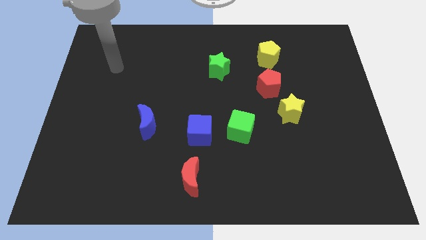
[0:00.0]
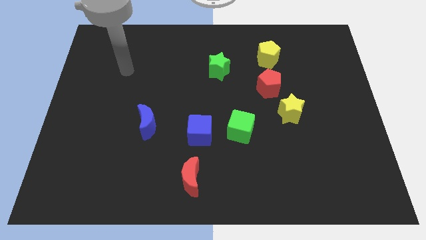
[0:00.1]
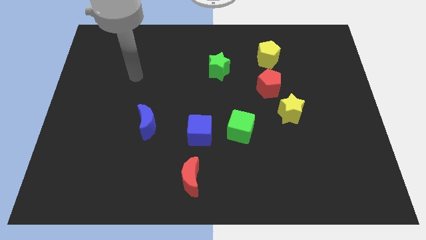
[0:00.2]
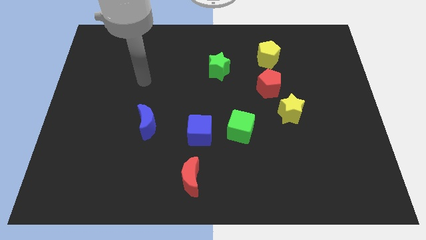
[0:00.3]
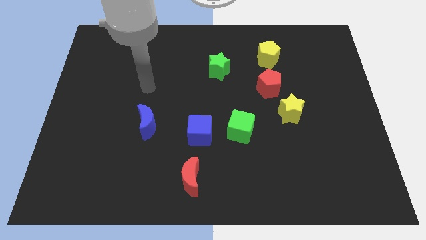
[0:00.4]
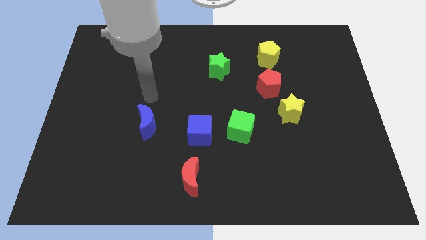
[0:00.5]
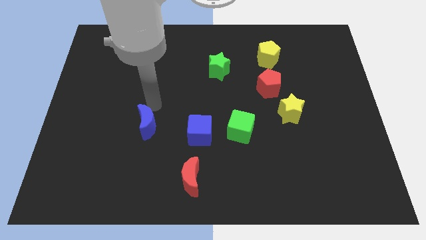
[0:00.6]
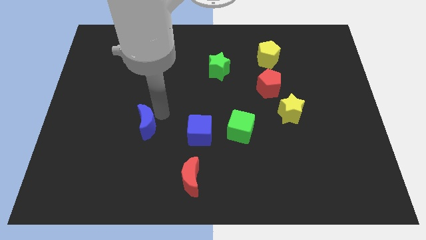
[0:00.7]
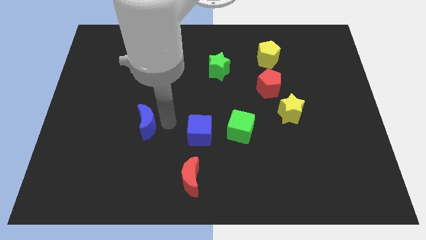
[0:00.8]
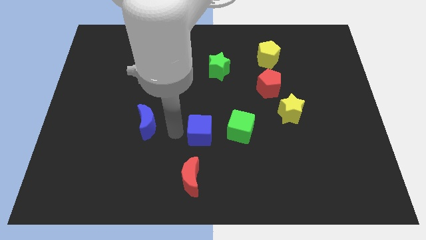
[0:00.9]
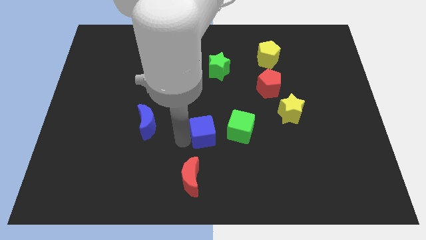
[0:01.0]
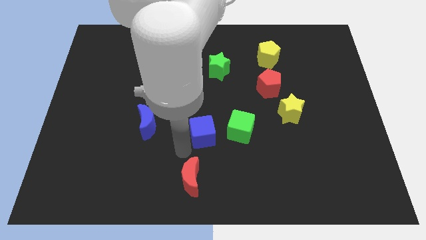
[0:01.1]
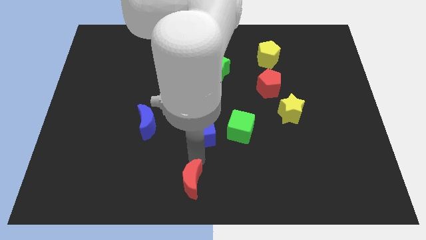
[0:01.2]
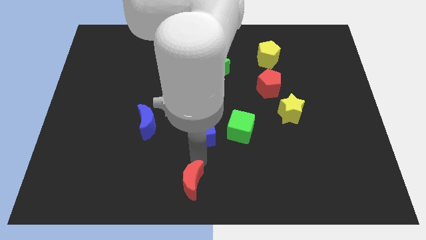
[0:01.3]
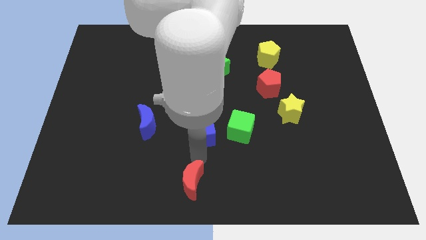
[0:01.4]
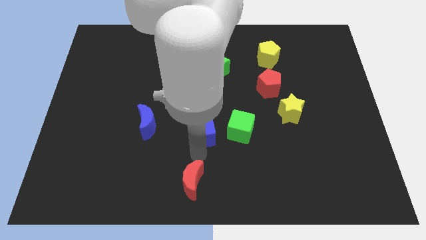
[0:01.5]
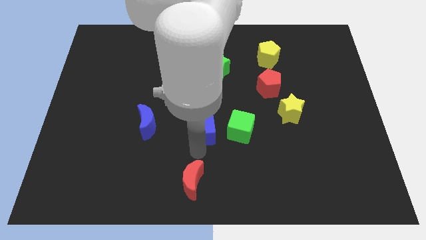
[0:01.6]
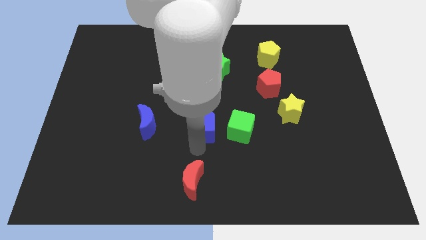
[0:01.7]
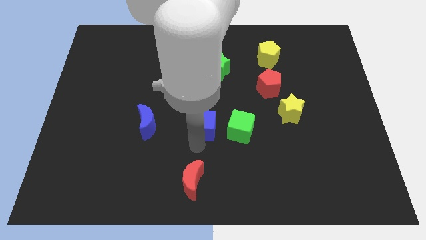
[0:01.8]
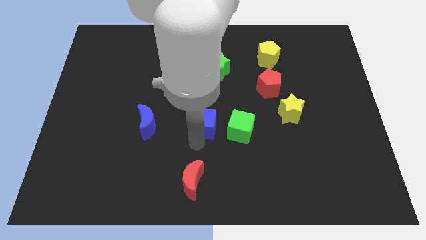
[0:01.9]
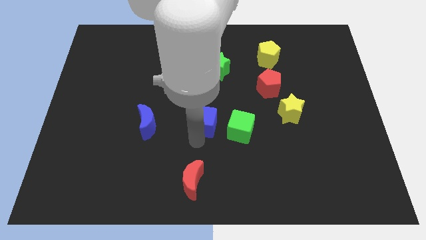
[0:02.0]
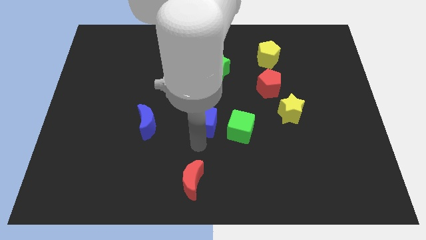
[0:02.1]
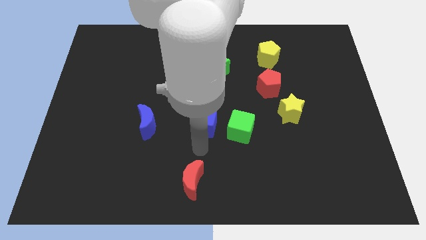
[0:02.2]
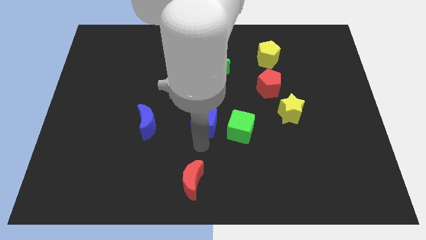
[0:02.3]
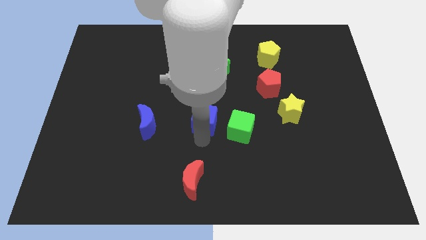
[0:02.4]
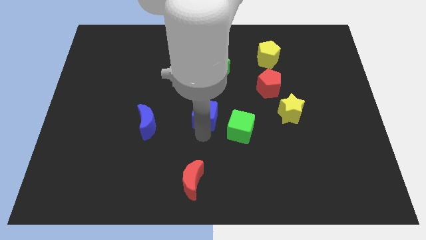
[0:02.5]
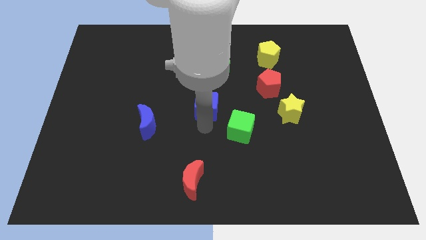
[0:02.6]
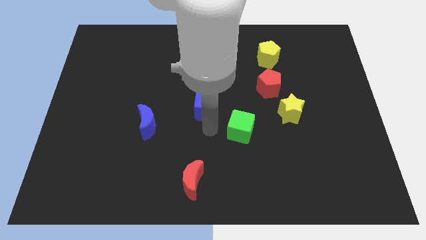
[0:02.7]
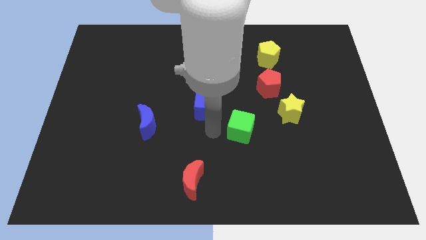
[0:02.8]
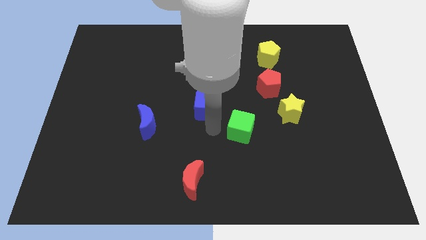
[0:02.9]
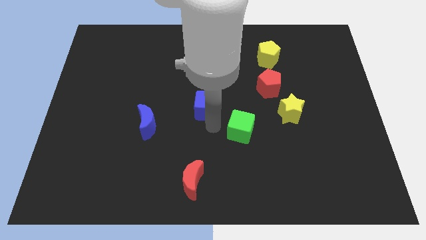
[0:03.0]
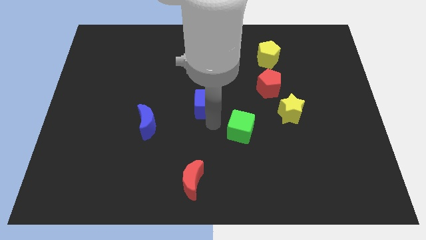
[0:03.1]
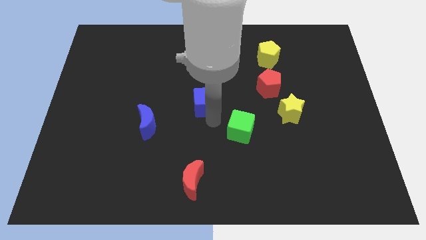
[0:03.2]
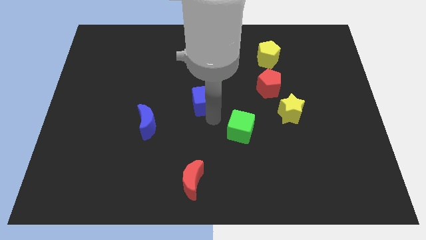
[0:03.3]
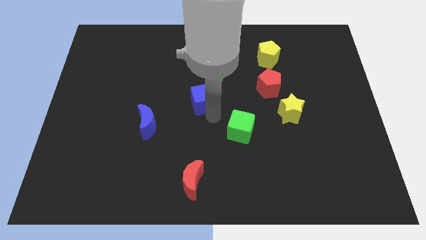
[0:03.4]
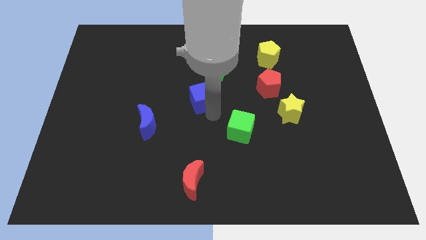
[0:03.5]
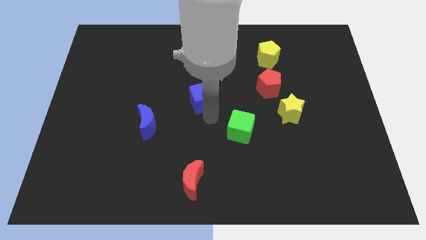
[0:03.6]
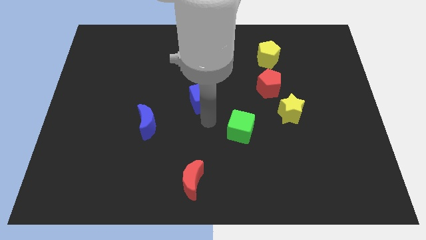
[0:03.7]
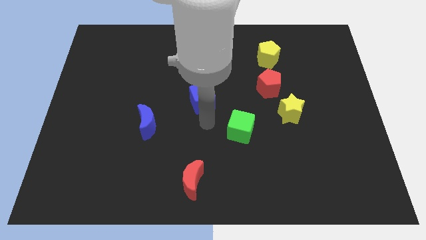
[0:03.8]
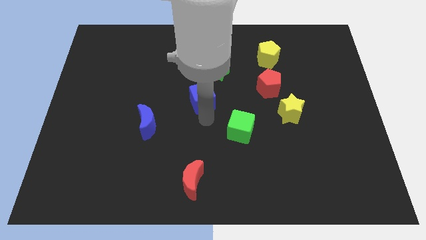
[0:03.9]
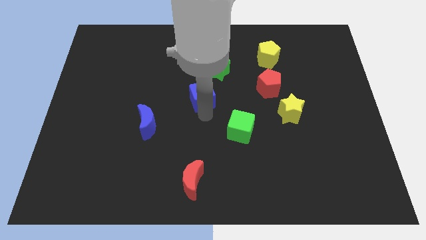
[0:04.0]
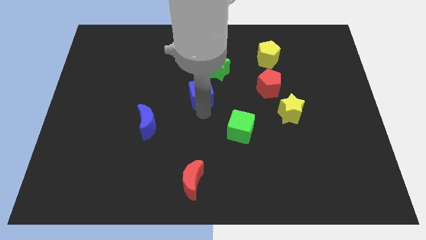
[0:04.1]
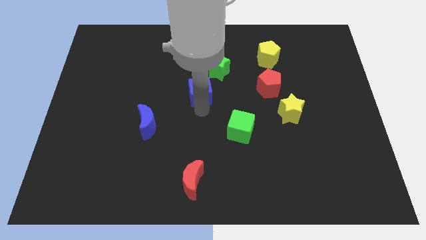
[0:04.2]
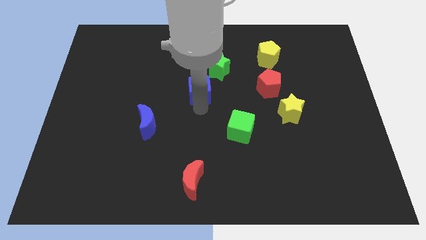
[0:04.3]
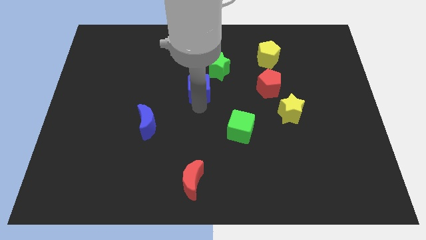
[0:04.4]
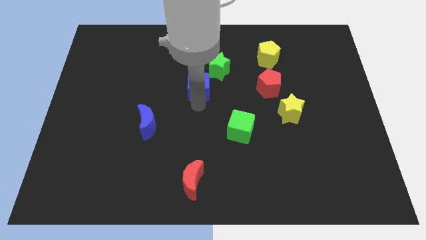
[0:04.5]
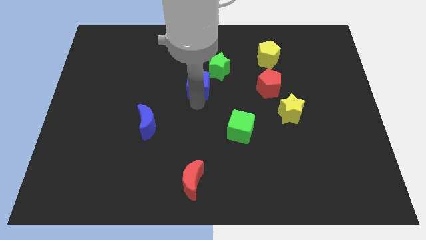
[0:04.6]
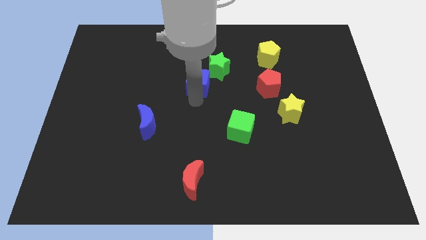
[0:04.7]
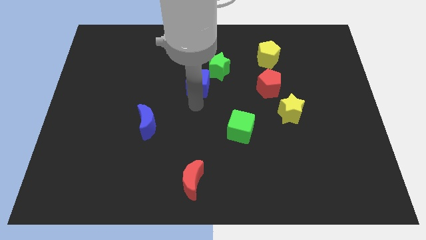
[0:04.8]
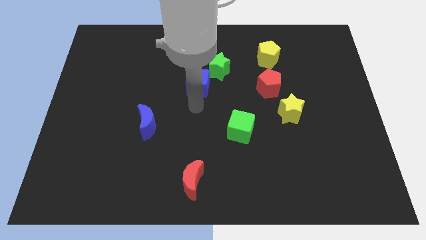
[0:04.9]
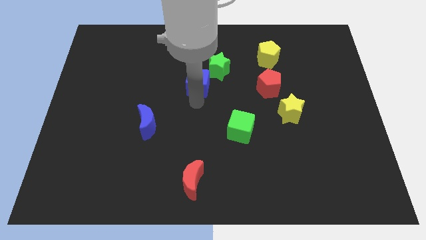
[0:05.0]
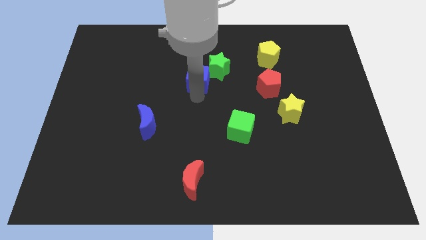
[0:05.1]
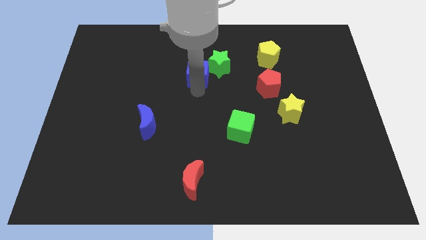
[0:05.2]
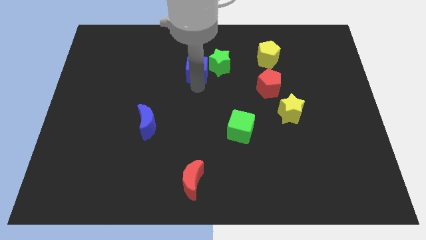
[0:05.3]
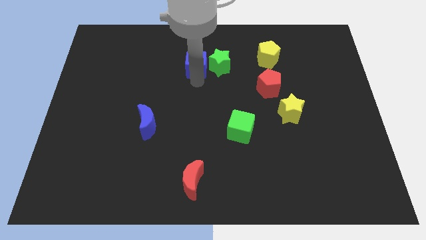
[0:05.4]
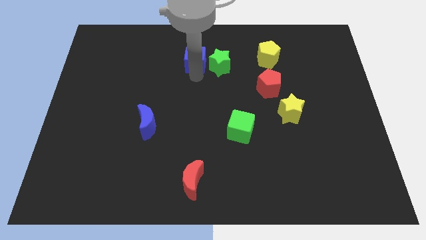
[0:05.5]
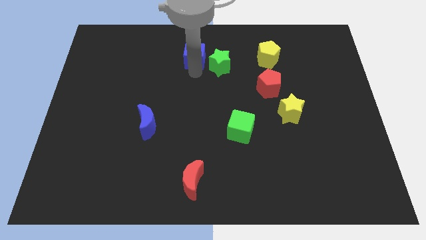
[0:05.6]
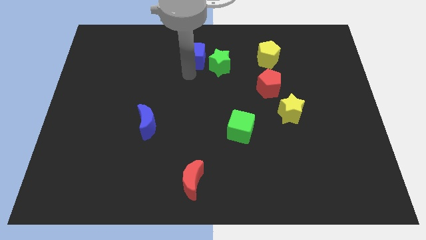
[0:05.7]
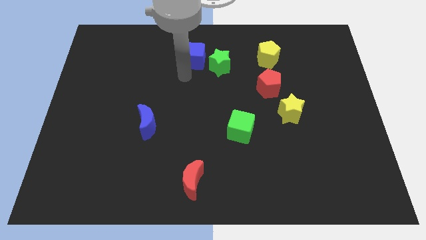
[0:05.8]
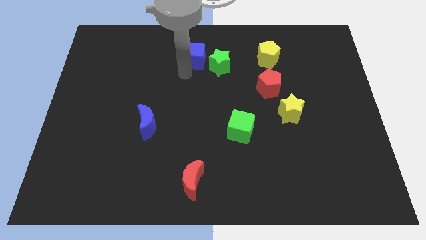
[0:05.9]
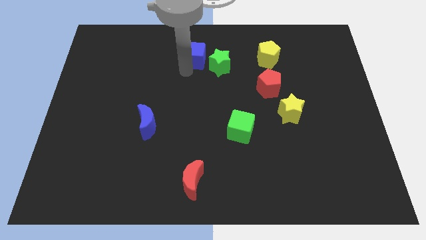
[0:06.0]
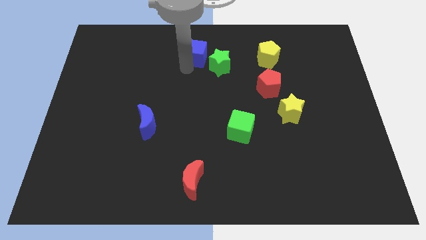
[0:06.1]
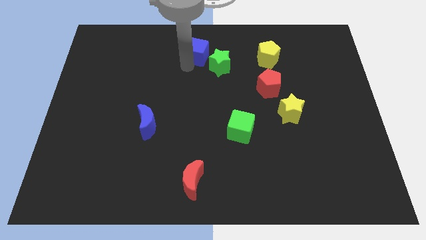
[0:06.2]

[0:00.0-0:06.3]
put the blue cube to the towards your base

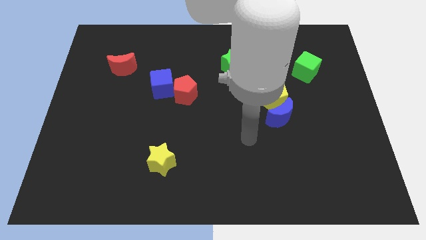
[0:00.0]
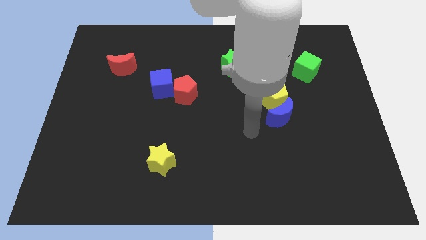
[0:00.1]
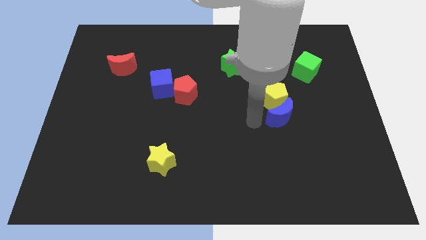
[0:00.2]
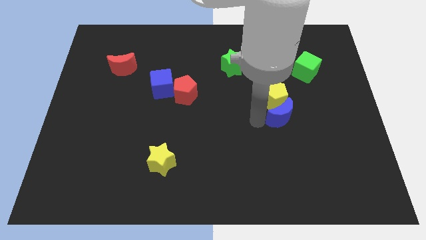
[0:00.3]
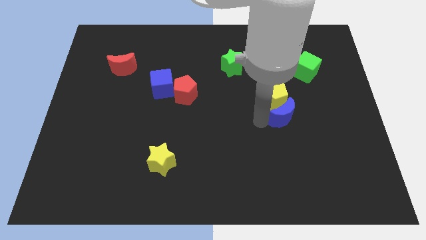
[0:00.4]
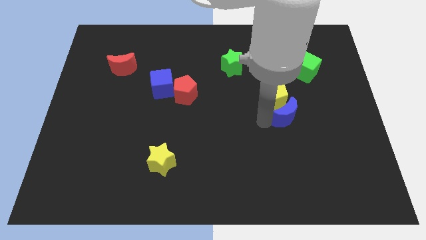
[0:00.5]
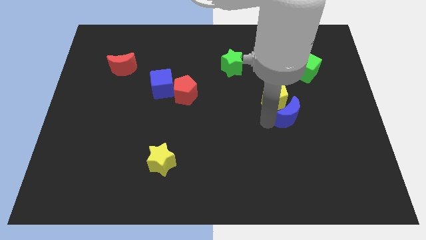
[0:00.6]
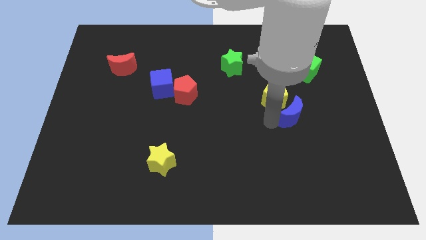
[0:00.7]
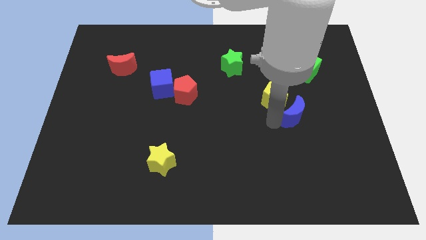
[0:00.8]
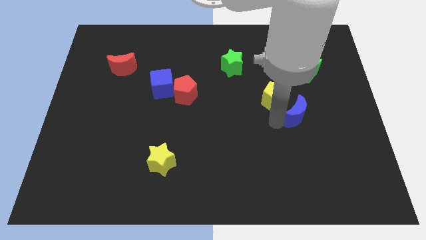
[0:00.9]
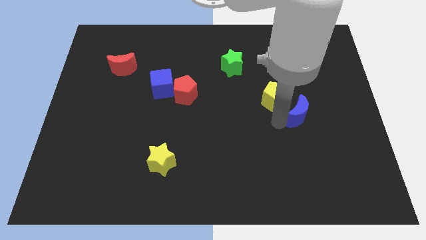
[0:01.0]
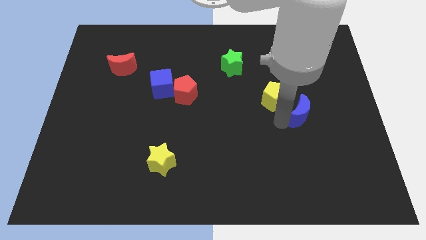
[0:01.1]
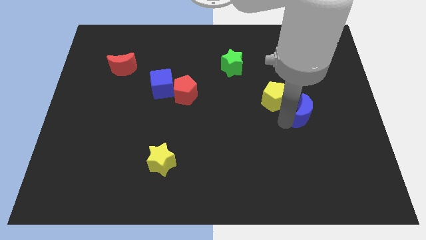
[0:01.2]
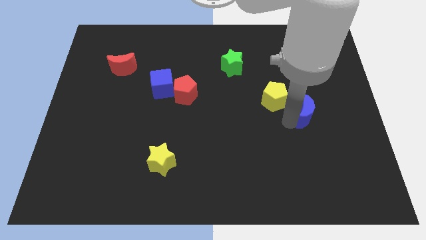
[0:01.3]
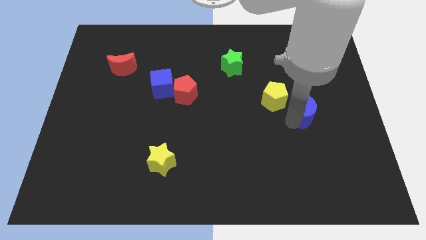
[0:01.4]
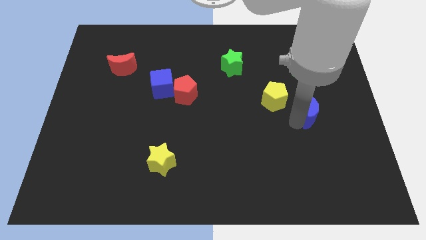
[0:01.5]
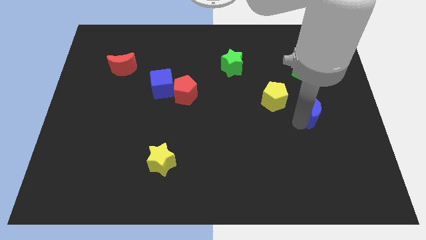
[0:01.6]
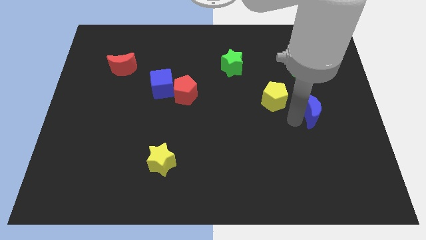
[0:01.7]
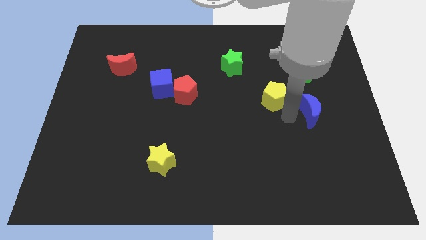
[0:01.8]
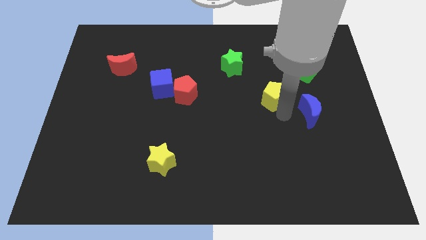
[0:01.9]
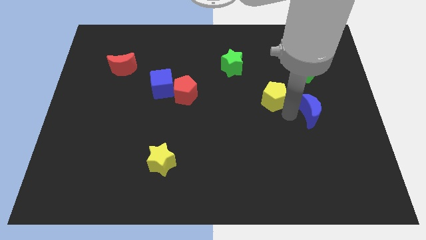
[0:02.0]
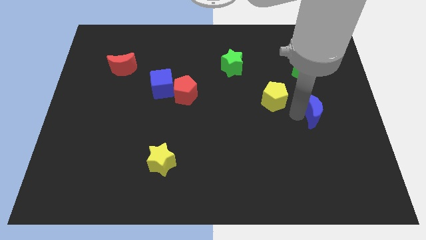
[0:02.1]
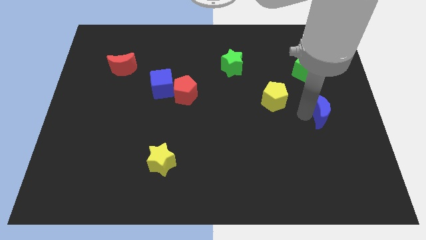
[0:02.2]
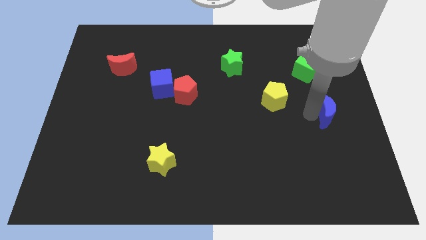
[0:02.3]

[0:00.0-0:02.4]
slide the blue moon to the center right
